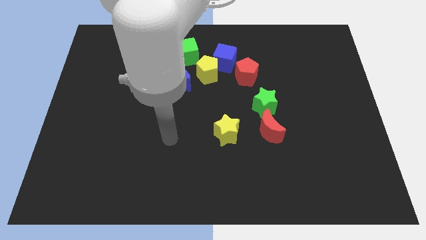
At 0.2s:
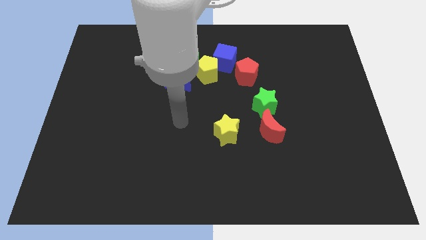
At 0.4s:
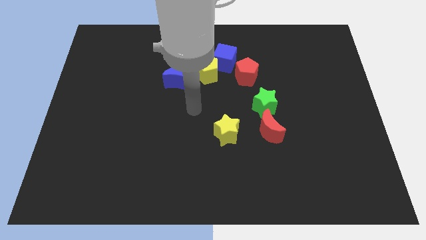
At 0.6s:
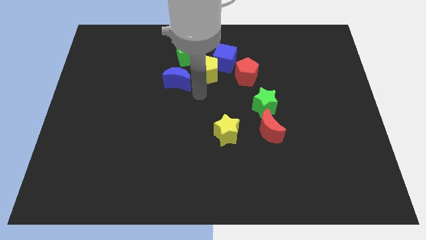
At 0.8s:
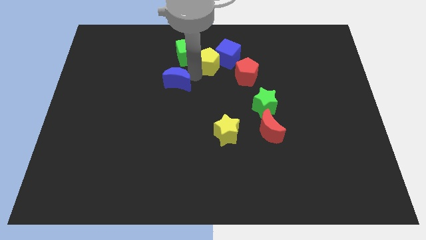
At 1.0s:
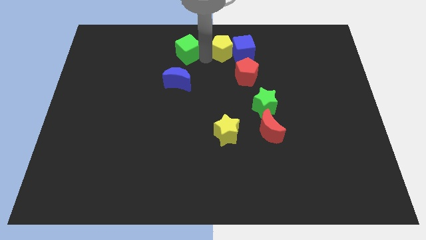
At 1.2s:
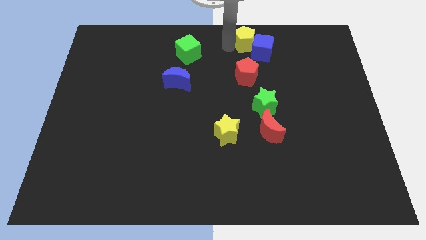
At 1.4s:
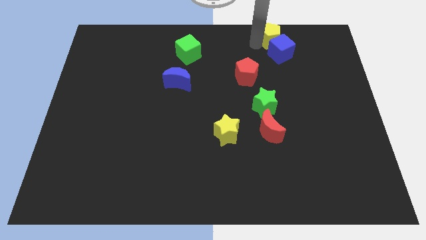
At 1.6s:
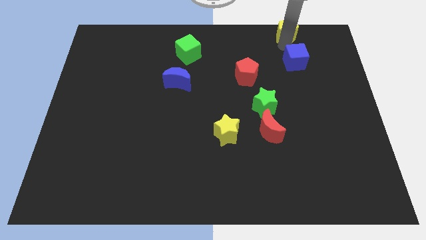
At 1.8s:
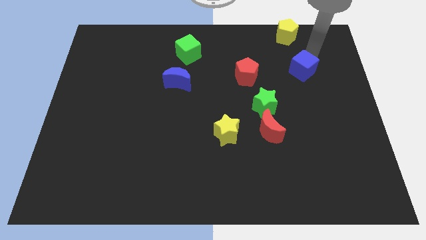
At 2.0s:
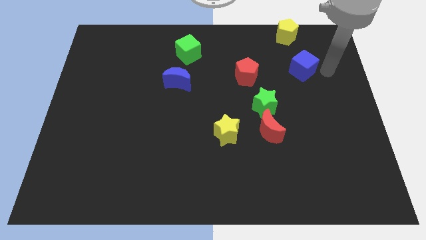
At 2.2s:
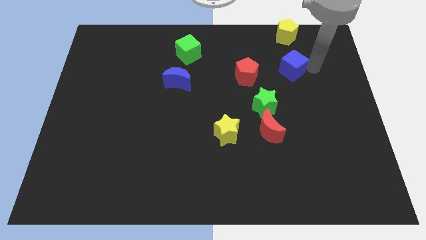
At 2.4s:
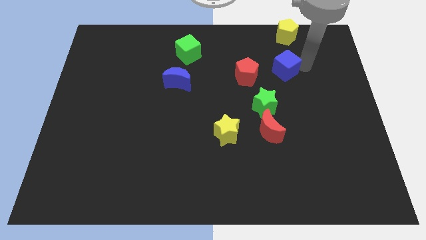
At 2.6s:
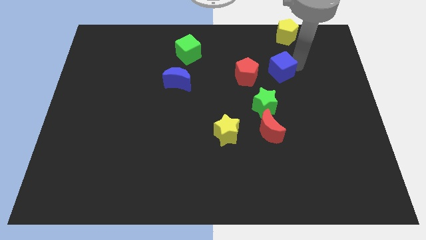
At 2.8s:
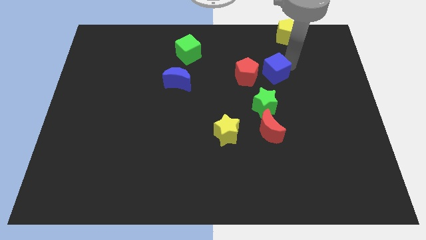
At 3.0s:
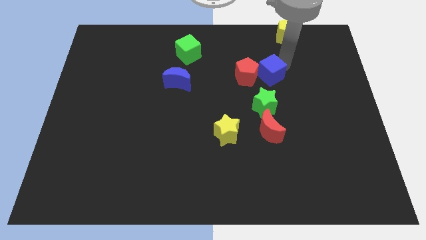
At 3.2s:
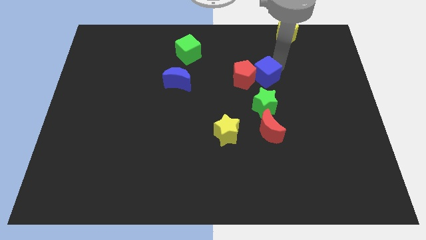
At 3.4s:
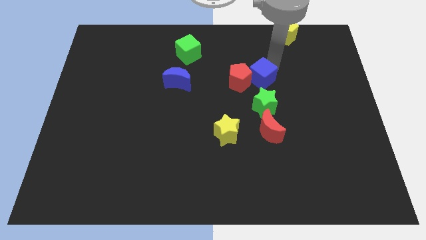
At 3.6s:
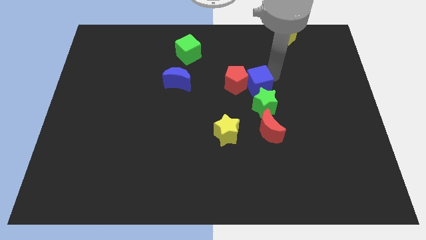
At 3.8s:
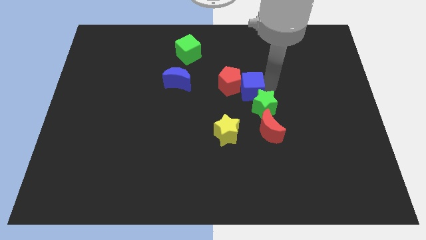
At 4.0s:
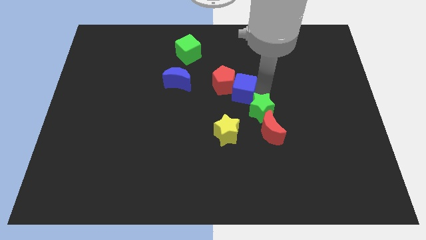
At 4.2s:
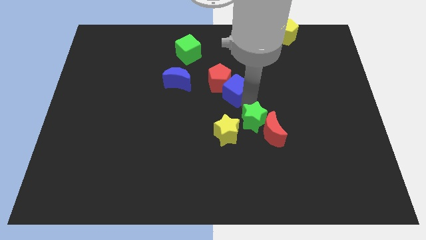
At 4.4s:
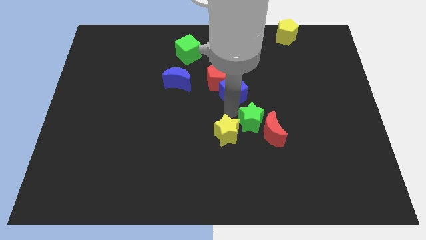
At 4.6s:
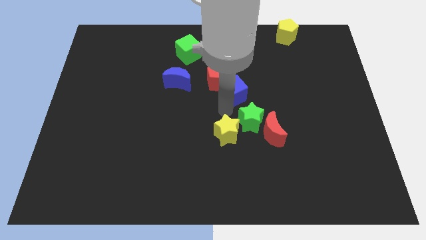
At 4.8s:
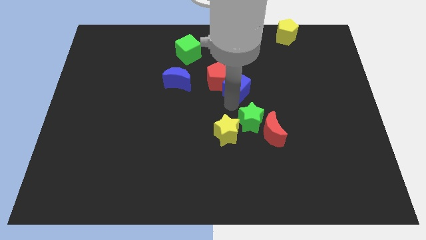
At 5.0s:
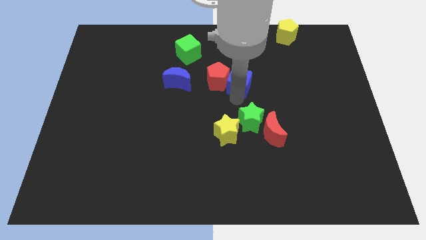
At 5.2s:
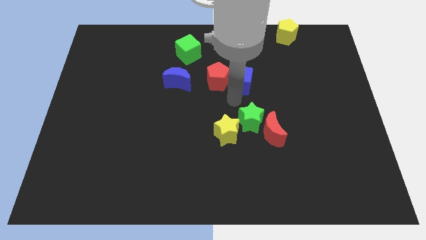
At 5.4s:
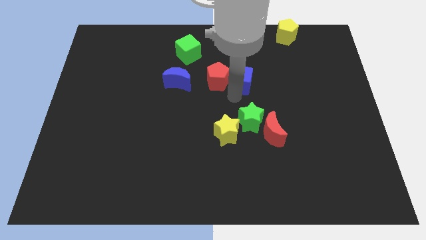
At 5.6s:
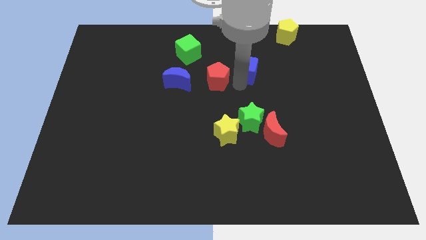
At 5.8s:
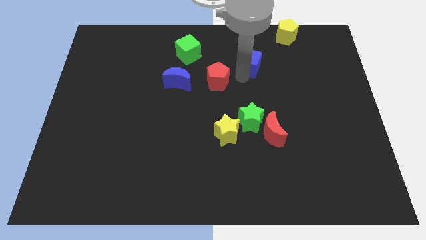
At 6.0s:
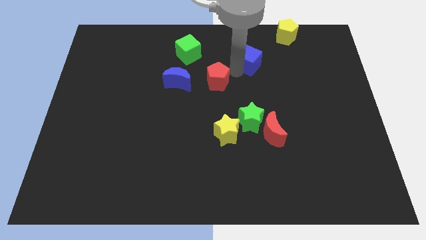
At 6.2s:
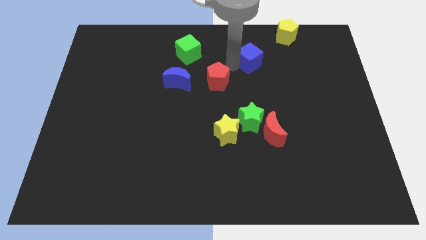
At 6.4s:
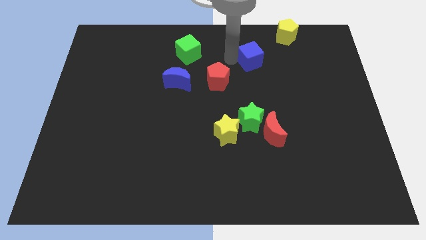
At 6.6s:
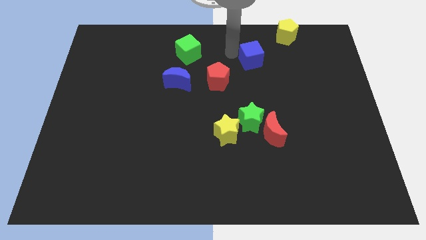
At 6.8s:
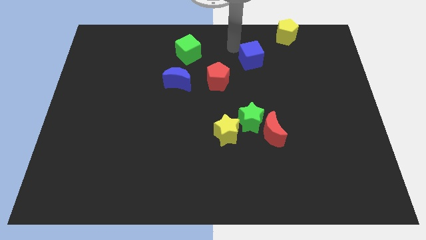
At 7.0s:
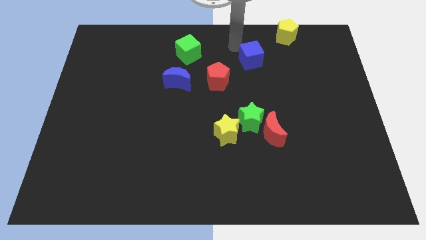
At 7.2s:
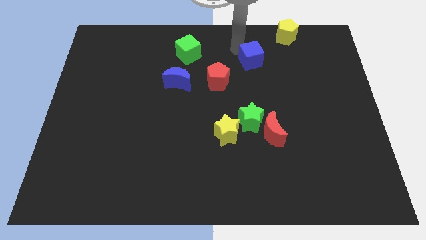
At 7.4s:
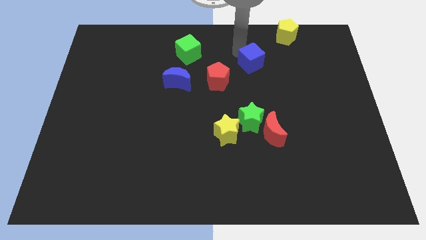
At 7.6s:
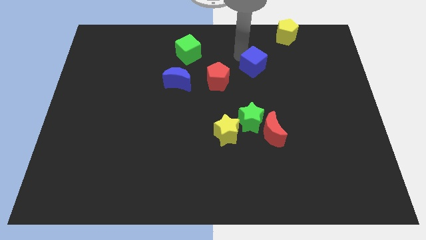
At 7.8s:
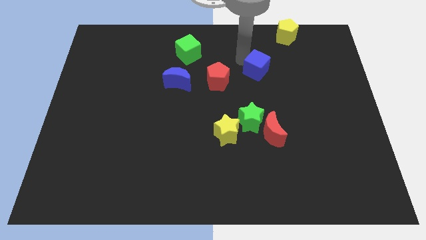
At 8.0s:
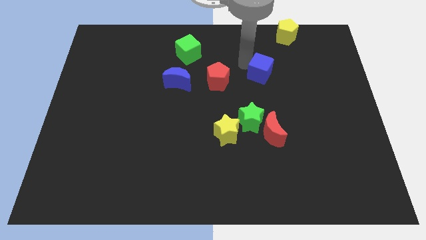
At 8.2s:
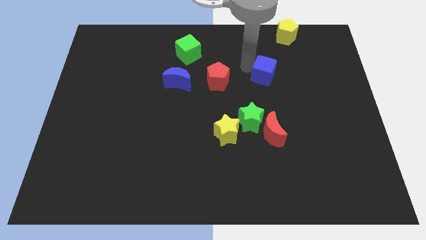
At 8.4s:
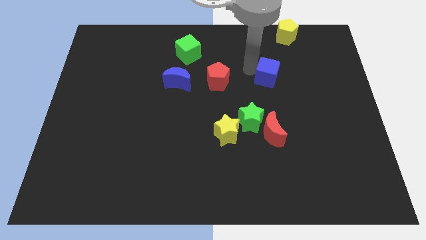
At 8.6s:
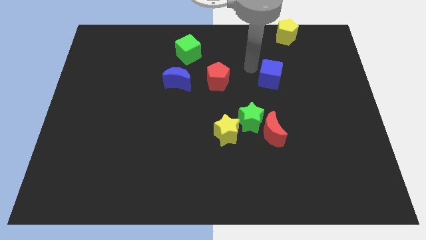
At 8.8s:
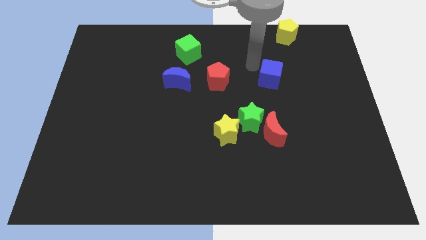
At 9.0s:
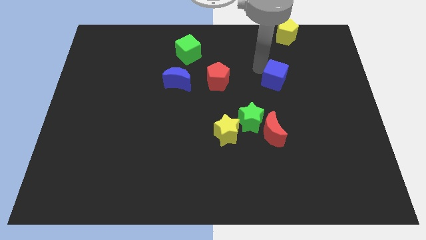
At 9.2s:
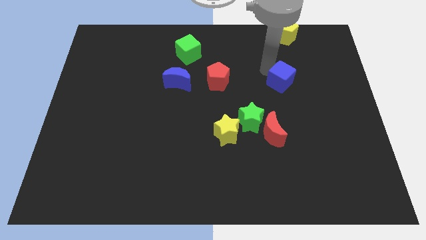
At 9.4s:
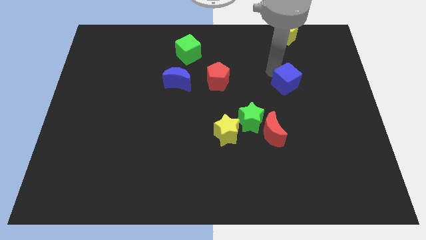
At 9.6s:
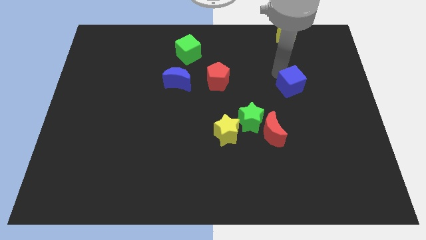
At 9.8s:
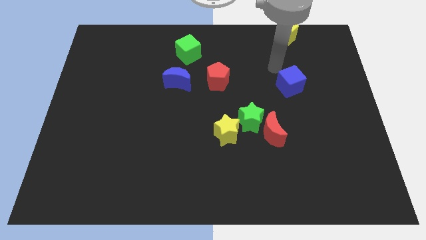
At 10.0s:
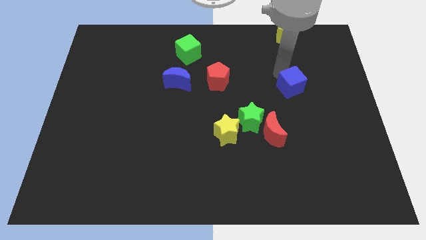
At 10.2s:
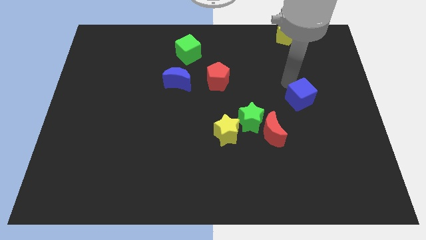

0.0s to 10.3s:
move the blue cube diagonally down and right

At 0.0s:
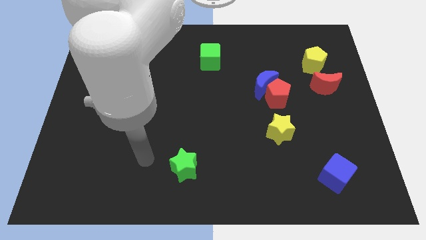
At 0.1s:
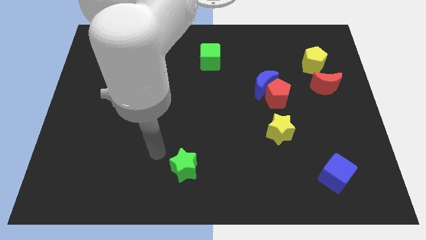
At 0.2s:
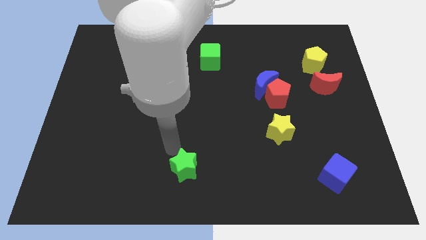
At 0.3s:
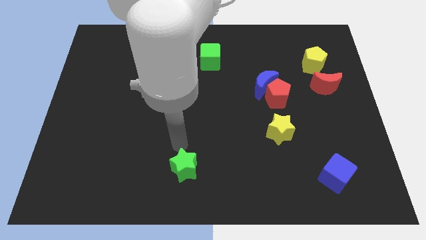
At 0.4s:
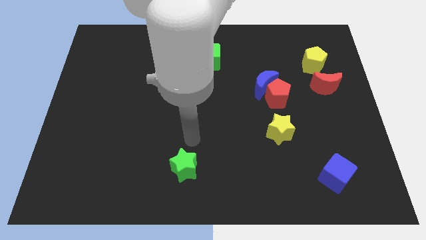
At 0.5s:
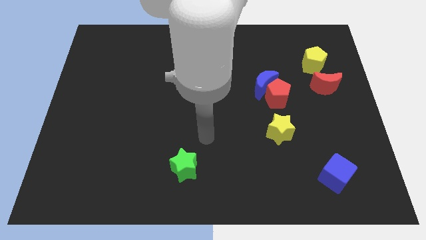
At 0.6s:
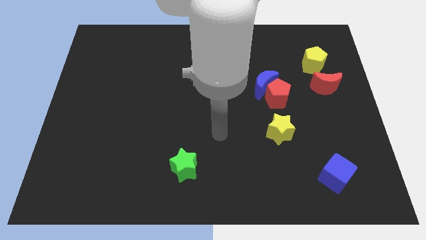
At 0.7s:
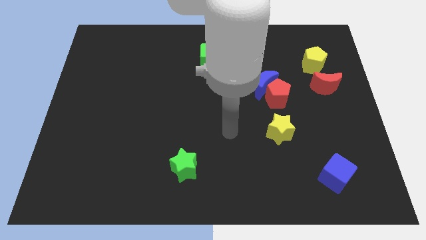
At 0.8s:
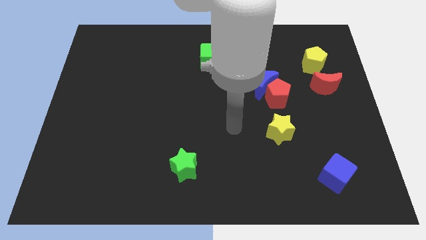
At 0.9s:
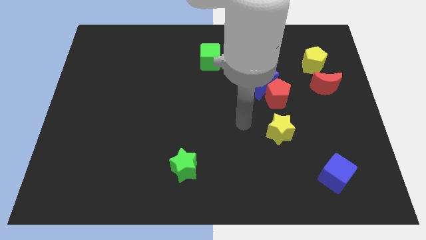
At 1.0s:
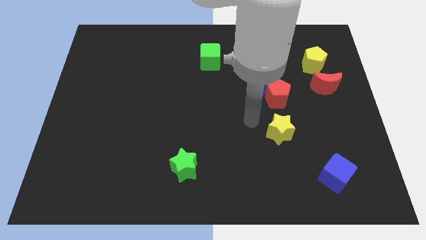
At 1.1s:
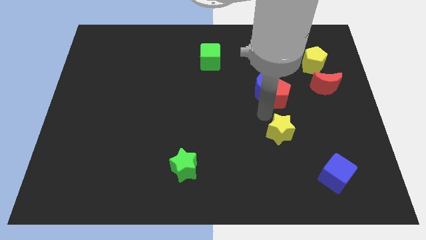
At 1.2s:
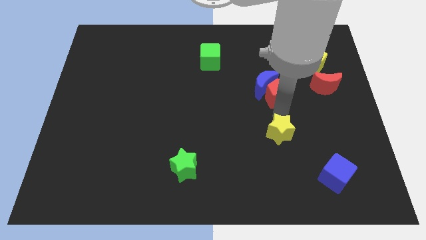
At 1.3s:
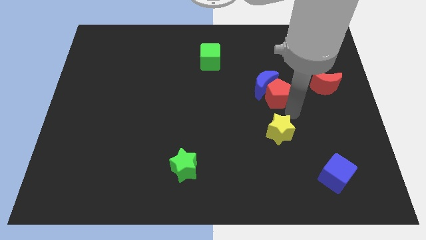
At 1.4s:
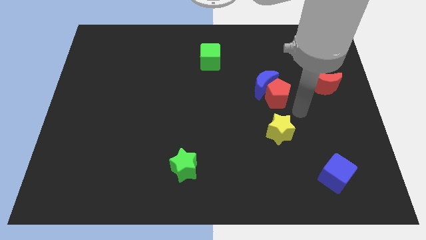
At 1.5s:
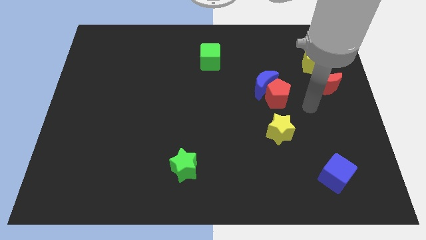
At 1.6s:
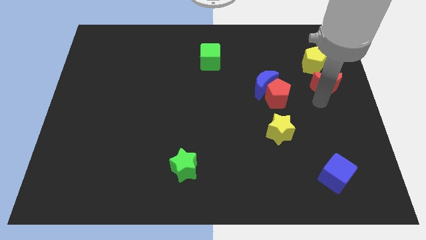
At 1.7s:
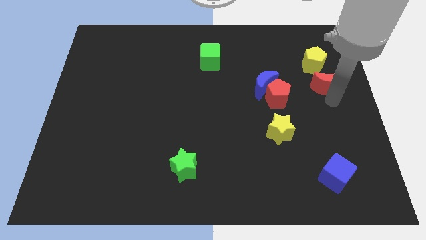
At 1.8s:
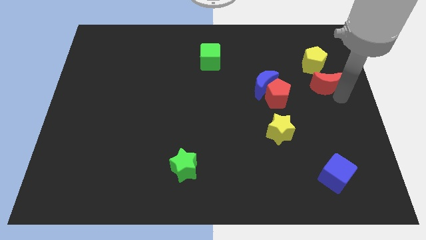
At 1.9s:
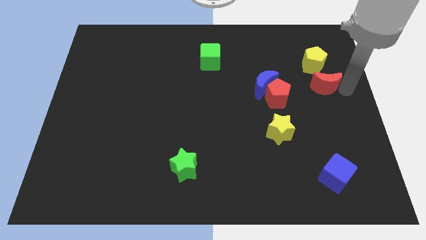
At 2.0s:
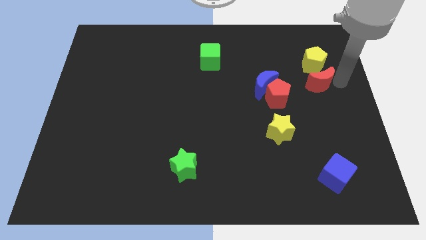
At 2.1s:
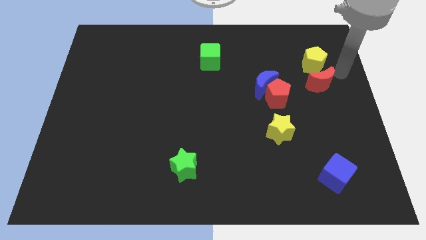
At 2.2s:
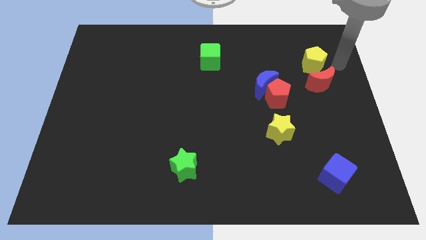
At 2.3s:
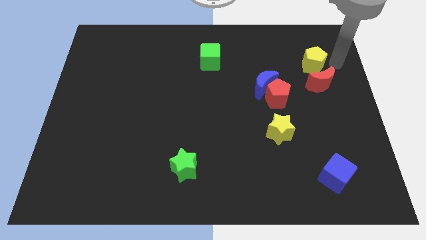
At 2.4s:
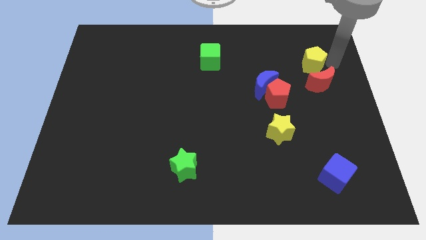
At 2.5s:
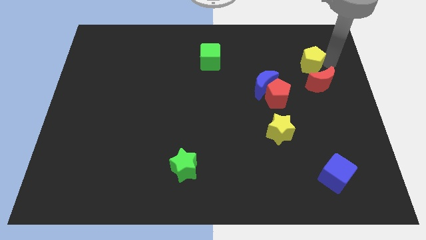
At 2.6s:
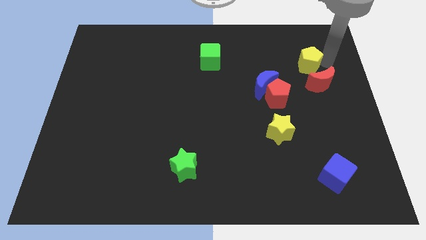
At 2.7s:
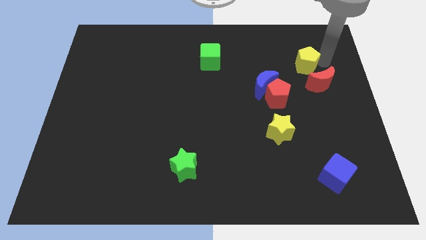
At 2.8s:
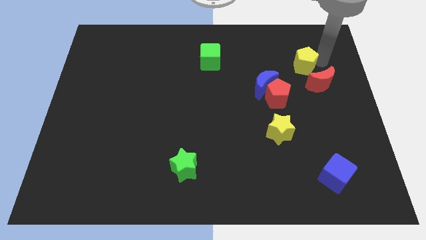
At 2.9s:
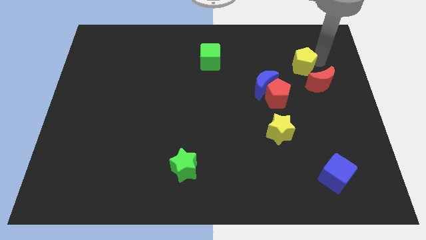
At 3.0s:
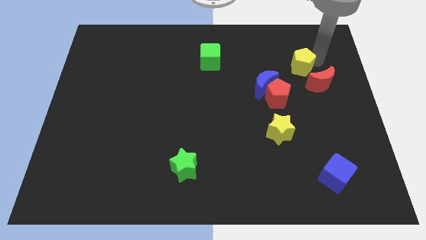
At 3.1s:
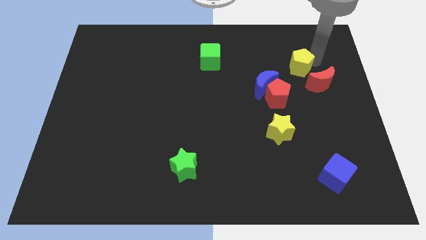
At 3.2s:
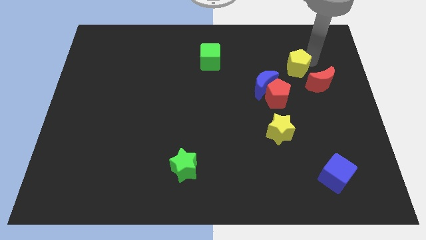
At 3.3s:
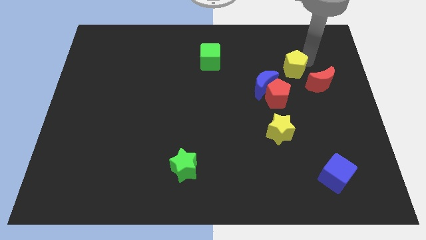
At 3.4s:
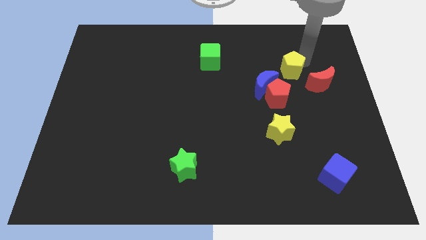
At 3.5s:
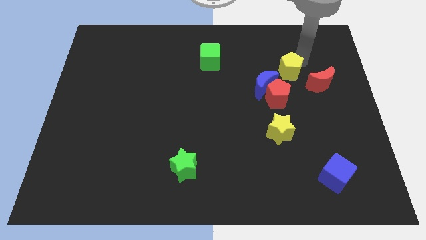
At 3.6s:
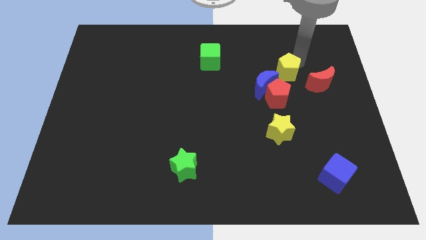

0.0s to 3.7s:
push the yellow pentagon left a little
